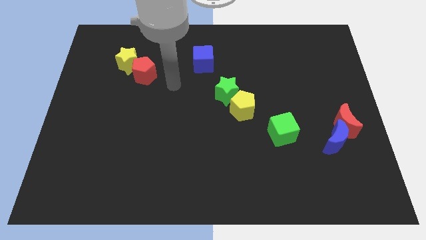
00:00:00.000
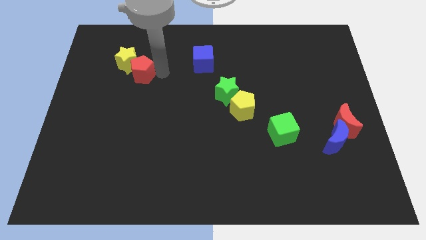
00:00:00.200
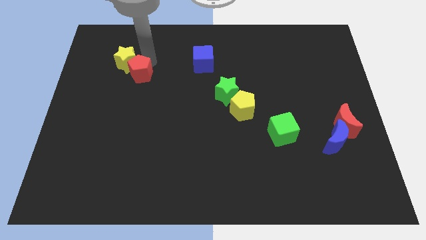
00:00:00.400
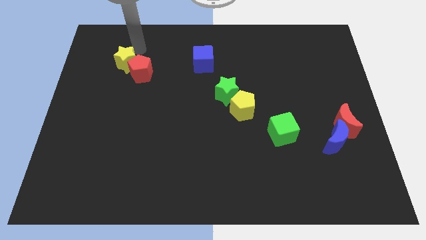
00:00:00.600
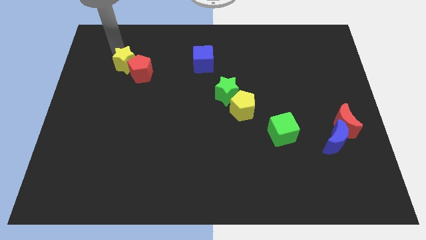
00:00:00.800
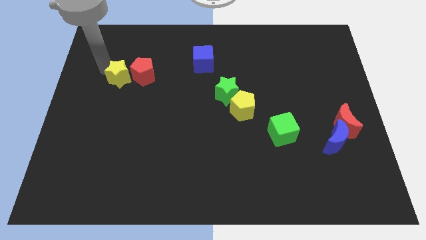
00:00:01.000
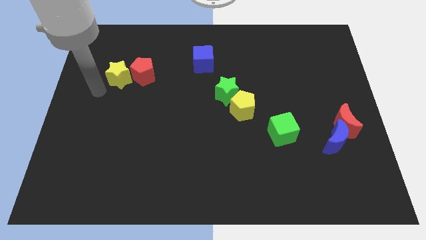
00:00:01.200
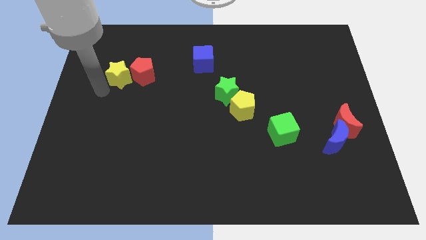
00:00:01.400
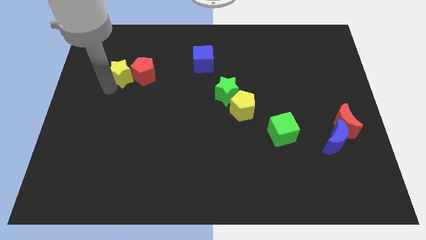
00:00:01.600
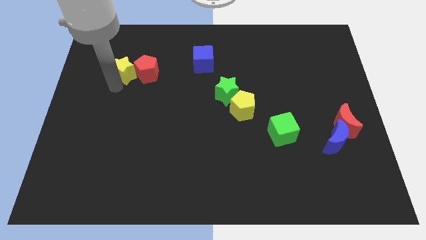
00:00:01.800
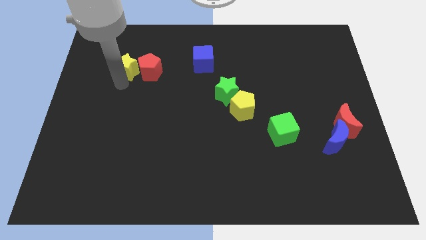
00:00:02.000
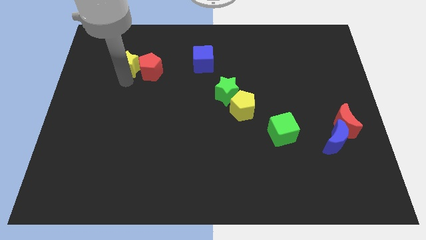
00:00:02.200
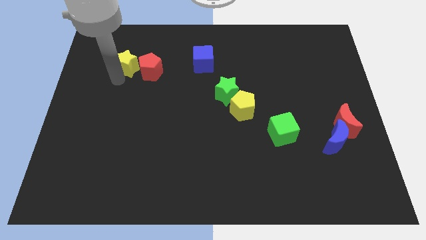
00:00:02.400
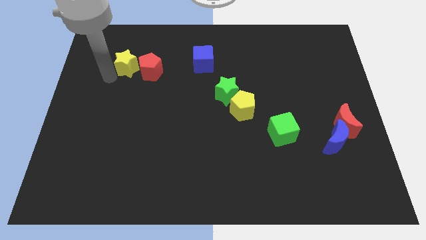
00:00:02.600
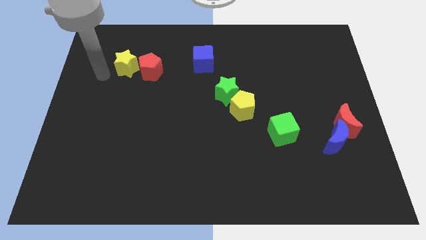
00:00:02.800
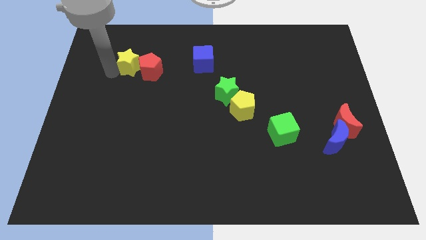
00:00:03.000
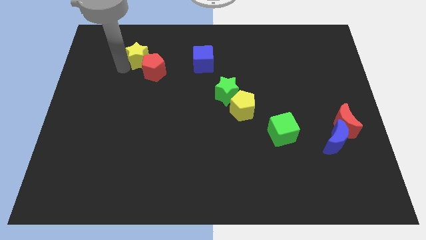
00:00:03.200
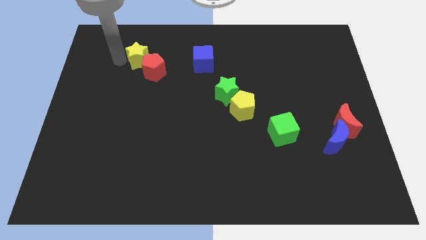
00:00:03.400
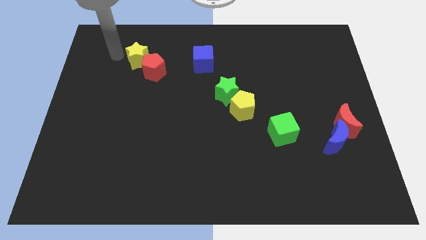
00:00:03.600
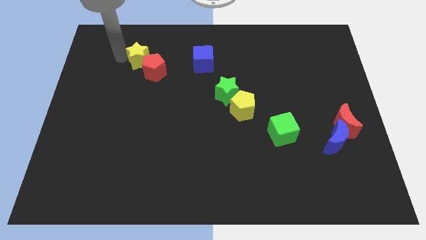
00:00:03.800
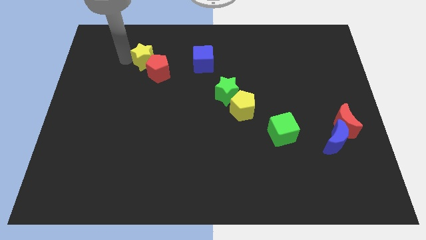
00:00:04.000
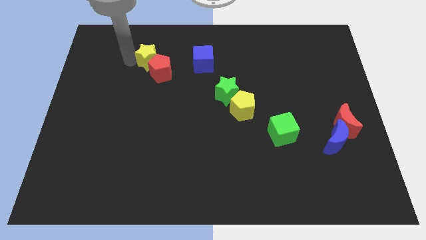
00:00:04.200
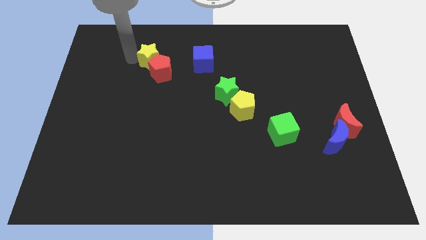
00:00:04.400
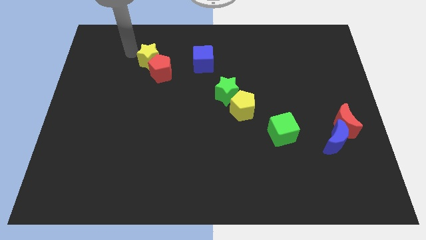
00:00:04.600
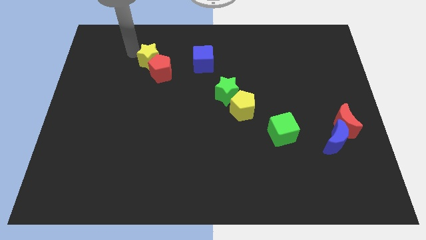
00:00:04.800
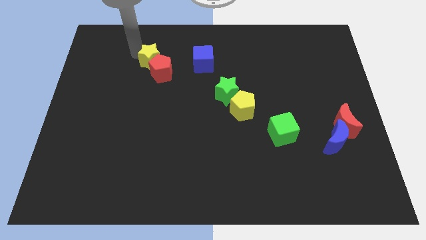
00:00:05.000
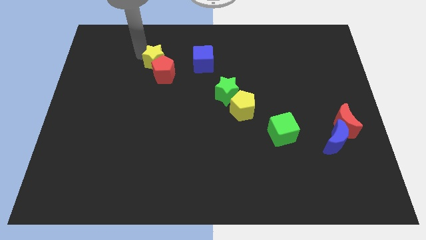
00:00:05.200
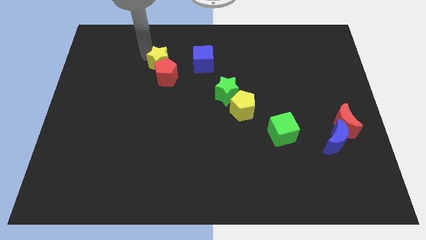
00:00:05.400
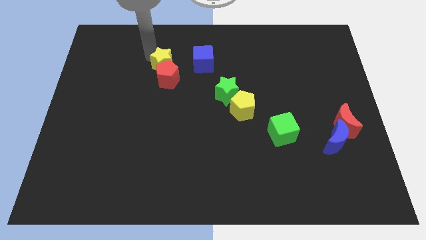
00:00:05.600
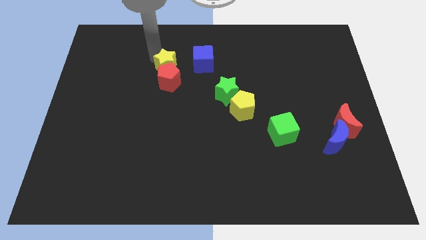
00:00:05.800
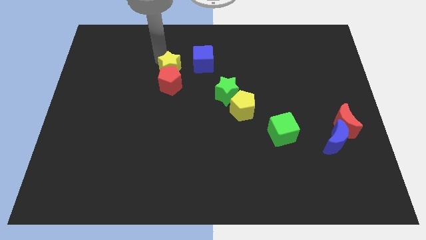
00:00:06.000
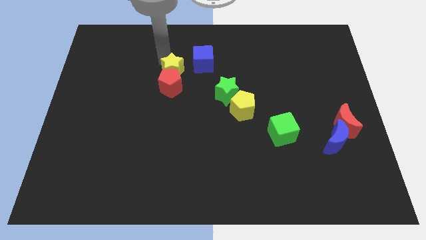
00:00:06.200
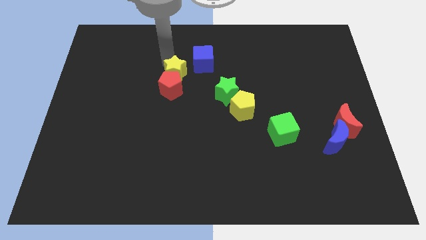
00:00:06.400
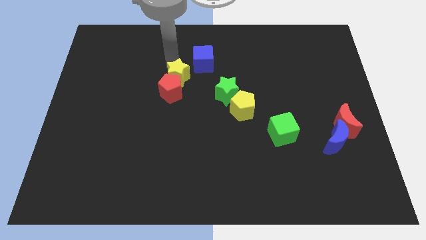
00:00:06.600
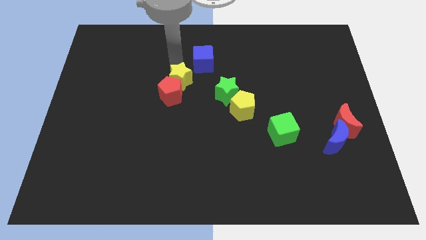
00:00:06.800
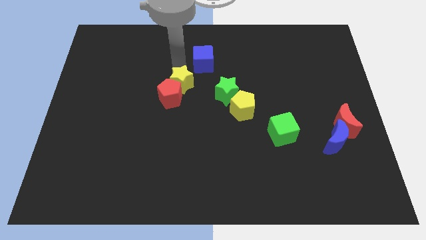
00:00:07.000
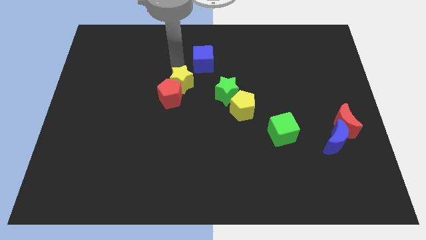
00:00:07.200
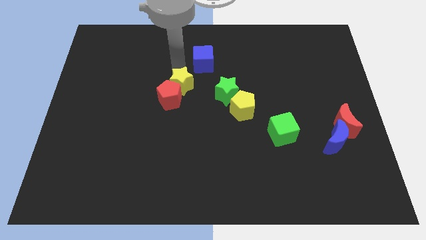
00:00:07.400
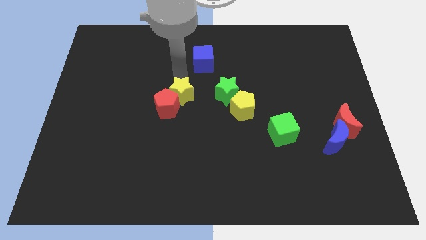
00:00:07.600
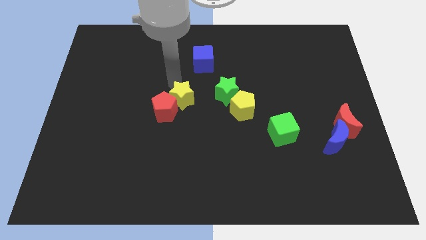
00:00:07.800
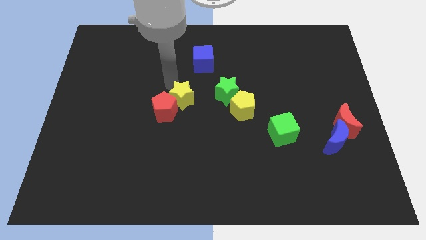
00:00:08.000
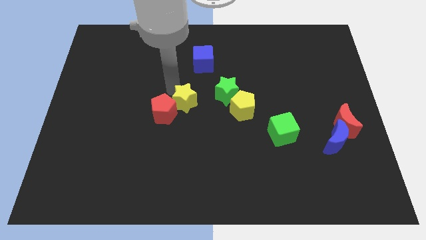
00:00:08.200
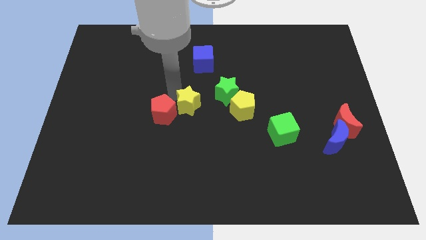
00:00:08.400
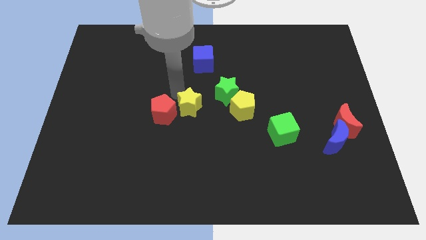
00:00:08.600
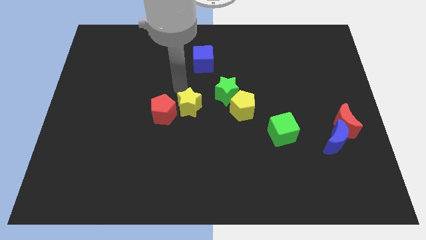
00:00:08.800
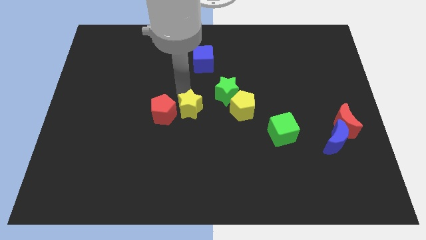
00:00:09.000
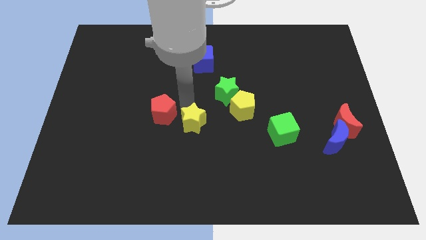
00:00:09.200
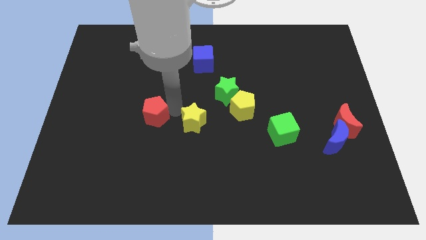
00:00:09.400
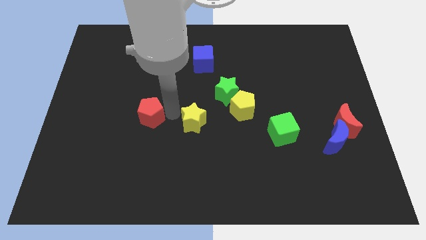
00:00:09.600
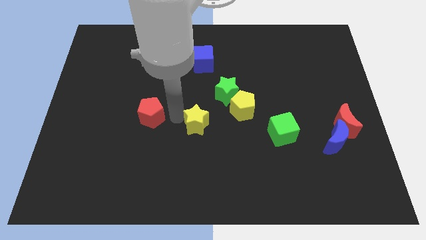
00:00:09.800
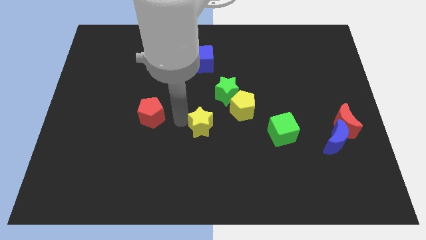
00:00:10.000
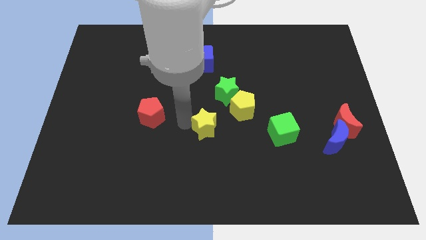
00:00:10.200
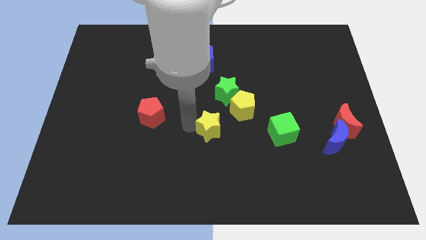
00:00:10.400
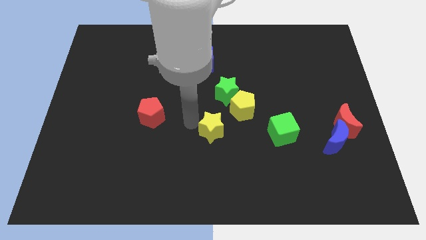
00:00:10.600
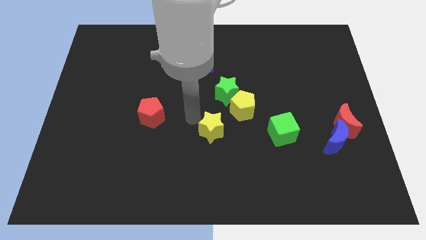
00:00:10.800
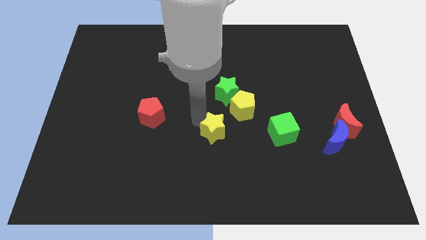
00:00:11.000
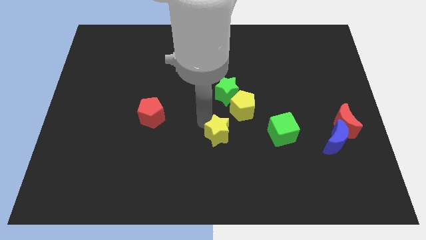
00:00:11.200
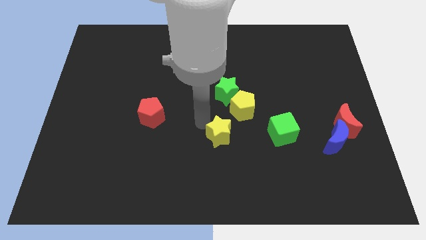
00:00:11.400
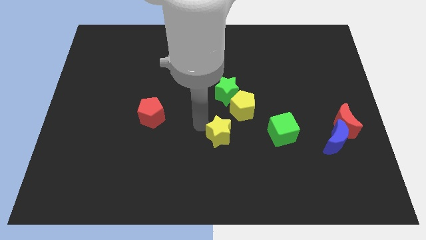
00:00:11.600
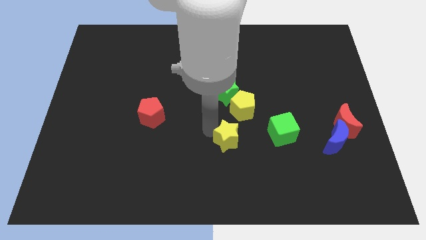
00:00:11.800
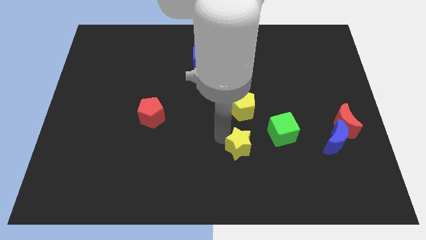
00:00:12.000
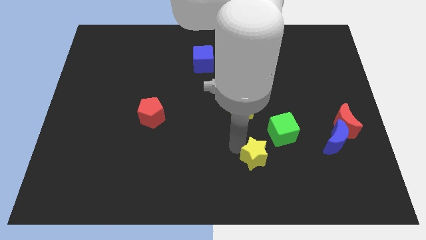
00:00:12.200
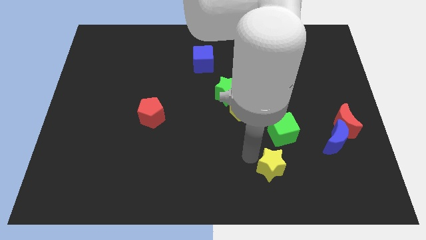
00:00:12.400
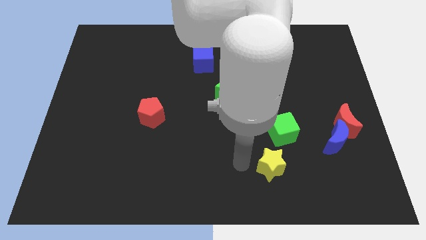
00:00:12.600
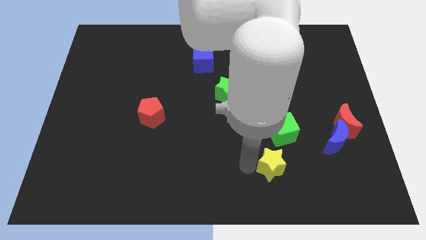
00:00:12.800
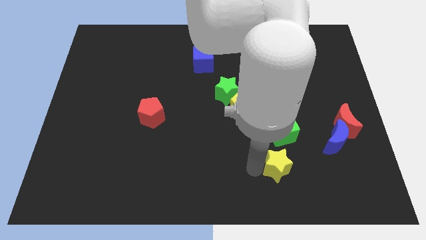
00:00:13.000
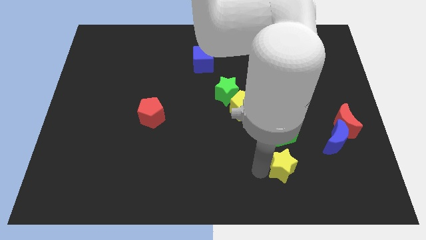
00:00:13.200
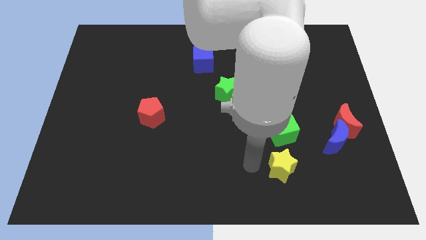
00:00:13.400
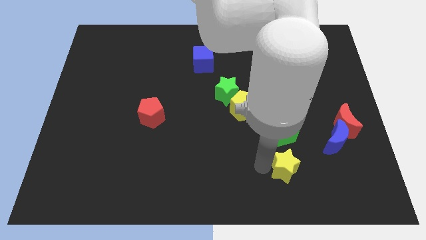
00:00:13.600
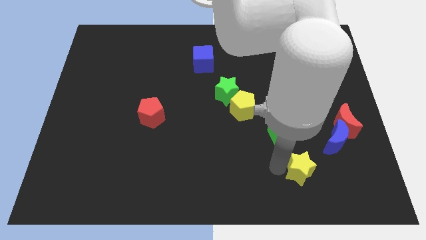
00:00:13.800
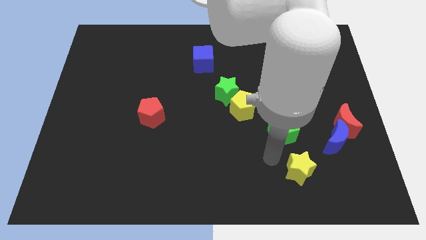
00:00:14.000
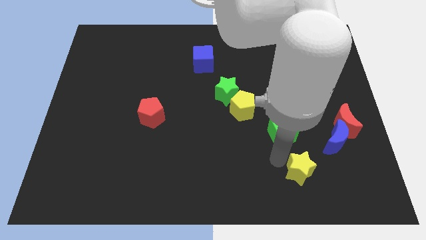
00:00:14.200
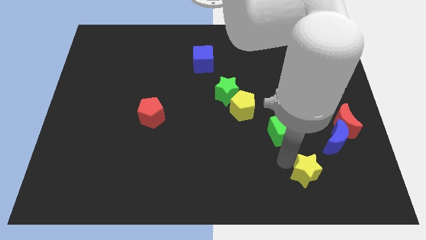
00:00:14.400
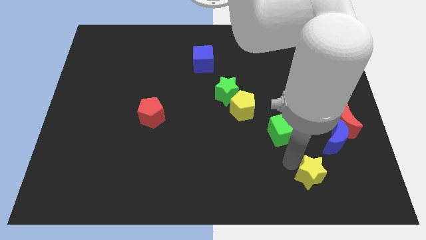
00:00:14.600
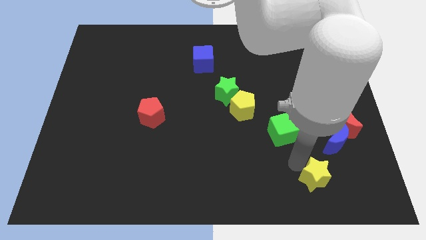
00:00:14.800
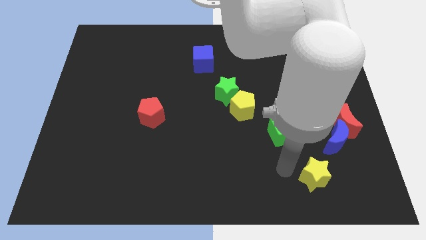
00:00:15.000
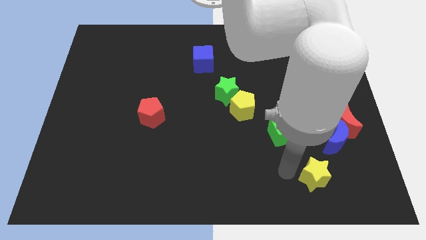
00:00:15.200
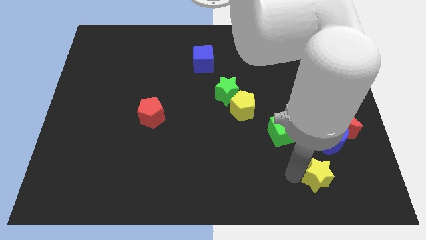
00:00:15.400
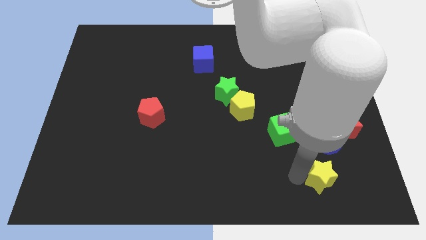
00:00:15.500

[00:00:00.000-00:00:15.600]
push the yellow star to the bottom side of the blue moon
